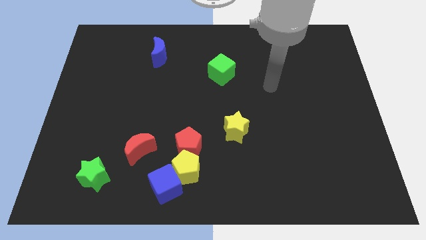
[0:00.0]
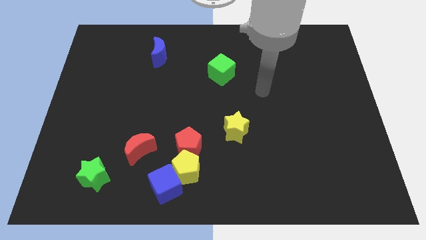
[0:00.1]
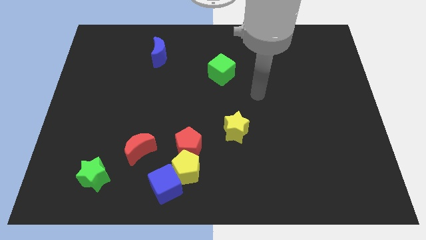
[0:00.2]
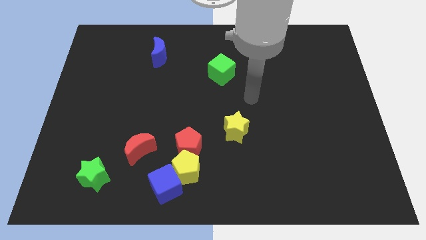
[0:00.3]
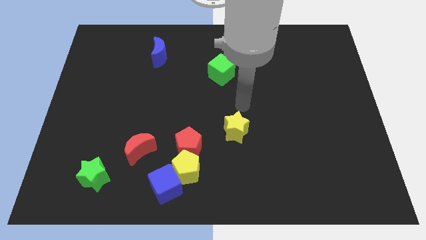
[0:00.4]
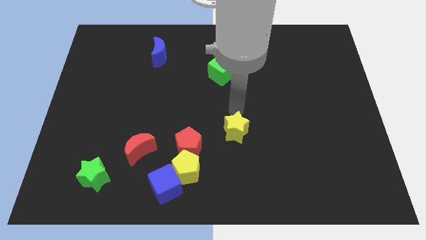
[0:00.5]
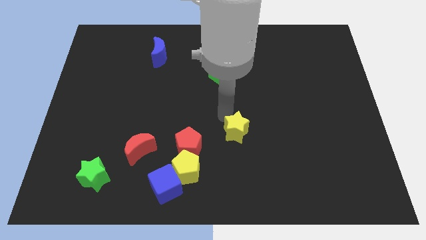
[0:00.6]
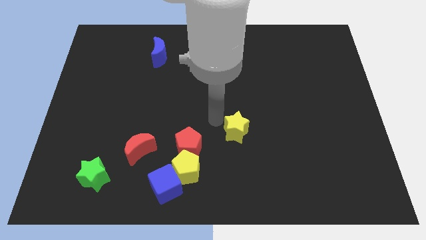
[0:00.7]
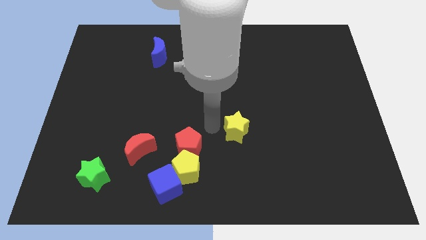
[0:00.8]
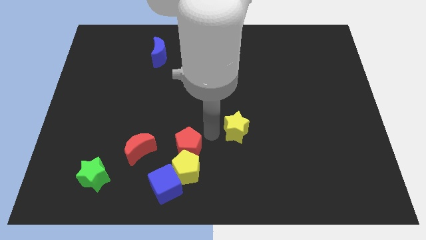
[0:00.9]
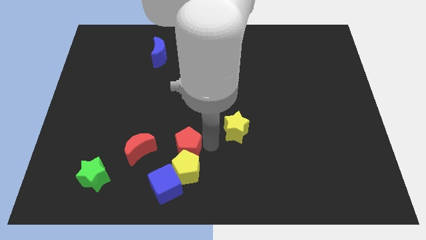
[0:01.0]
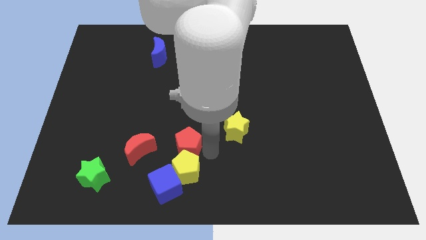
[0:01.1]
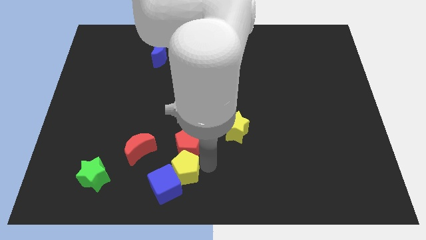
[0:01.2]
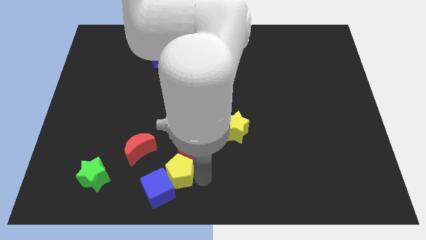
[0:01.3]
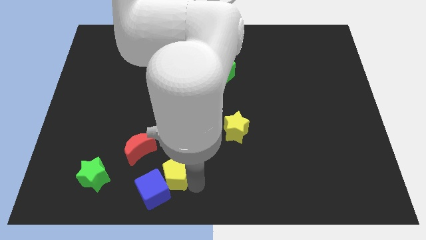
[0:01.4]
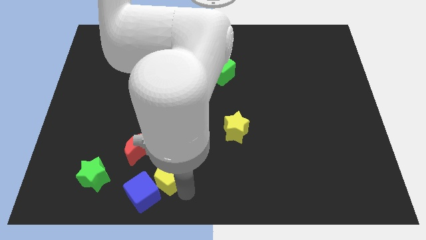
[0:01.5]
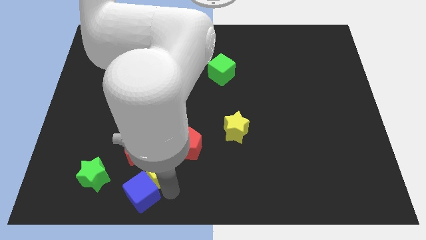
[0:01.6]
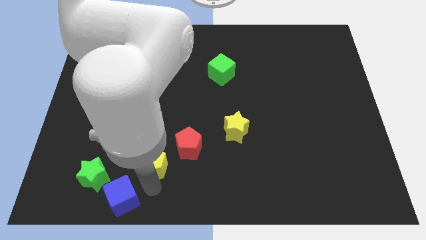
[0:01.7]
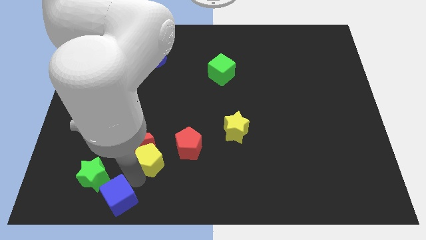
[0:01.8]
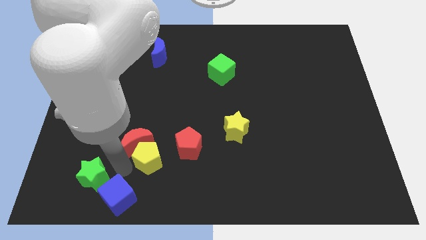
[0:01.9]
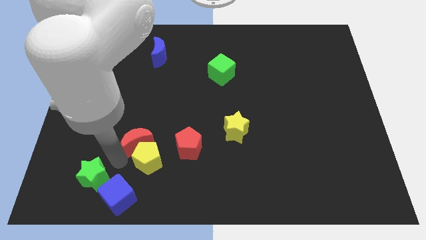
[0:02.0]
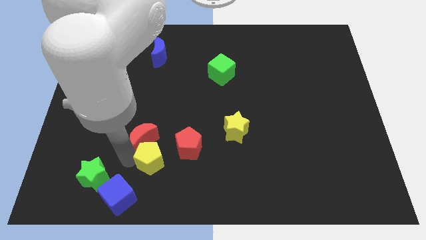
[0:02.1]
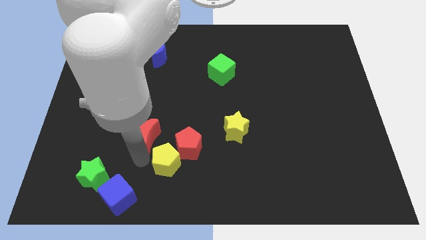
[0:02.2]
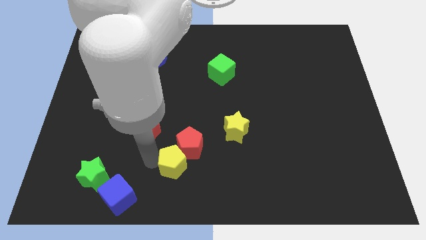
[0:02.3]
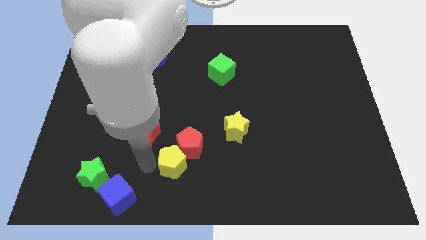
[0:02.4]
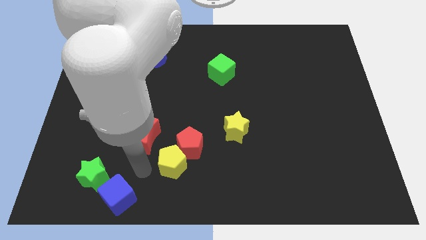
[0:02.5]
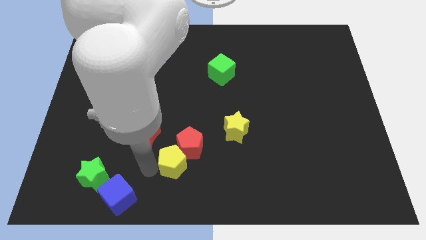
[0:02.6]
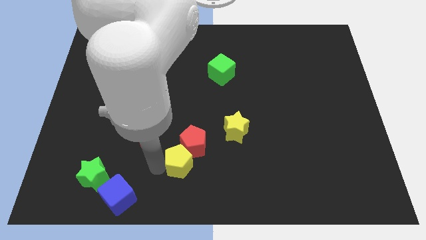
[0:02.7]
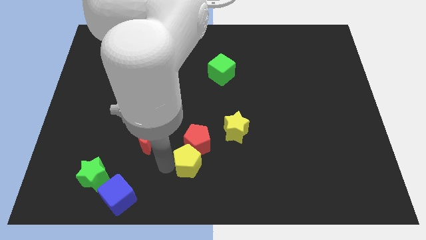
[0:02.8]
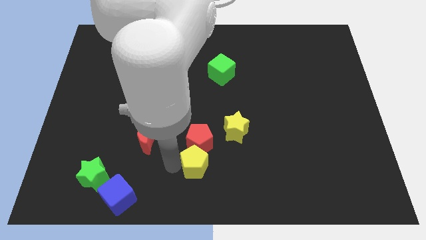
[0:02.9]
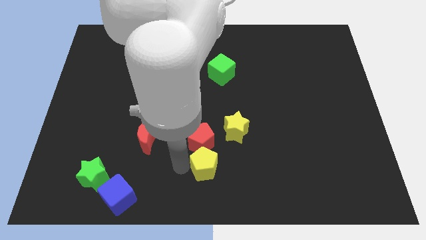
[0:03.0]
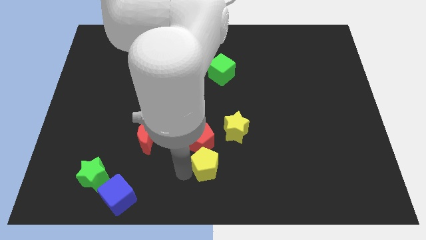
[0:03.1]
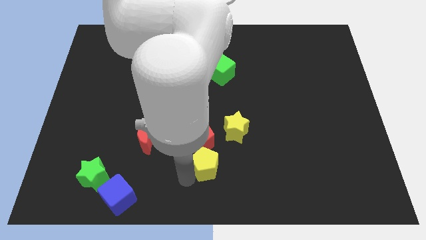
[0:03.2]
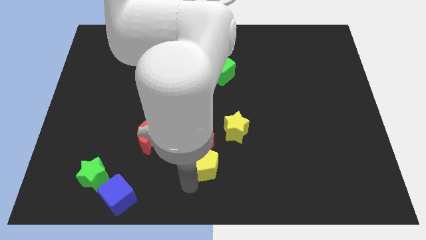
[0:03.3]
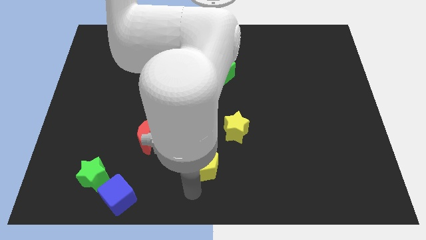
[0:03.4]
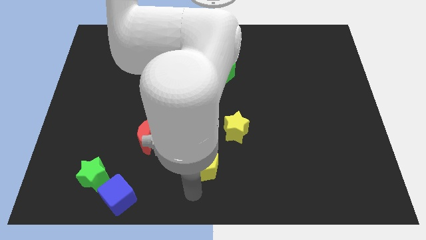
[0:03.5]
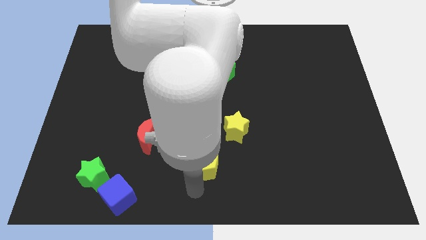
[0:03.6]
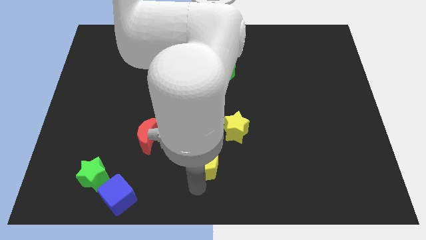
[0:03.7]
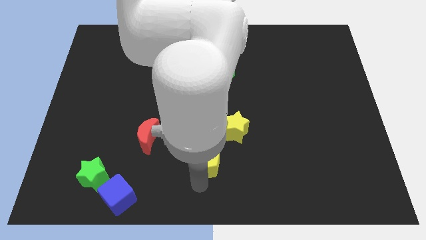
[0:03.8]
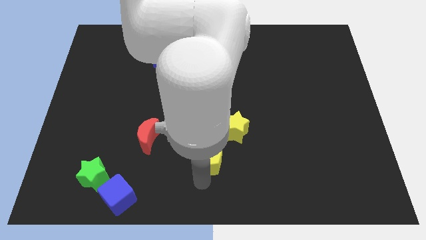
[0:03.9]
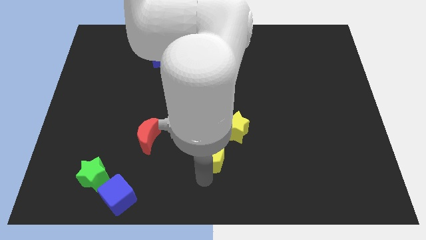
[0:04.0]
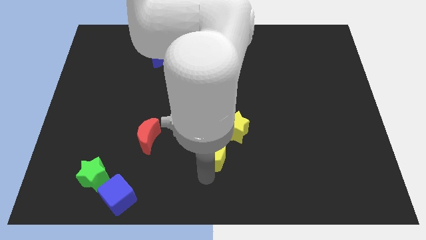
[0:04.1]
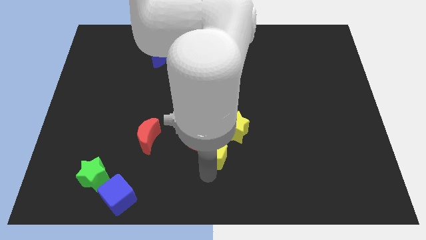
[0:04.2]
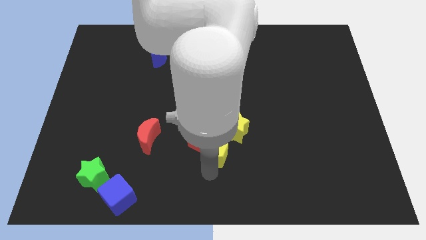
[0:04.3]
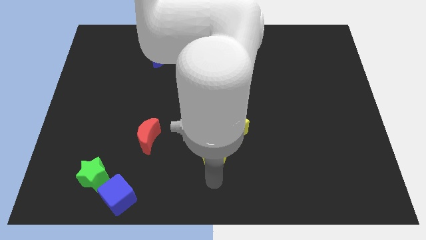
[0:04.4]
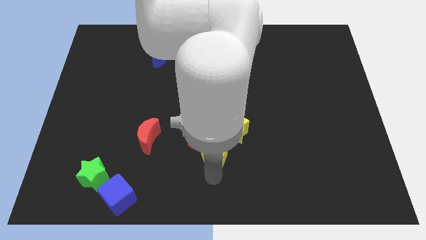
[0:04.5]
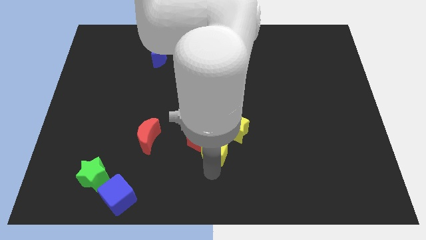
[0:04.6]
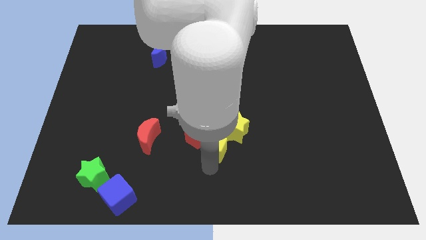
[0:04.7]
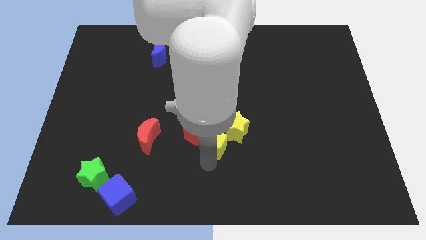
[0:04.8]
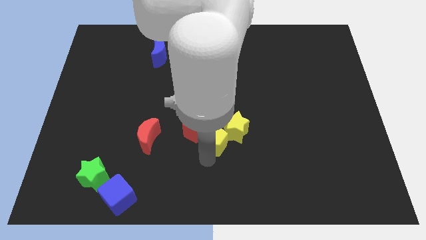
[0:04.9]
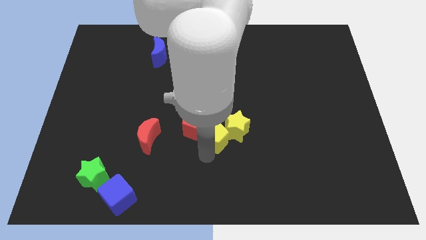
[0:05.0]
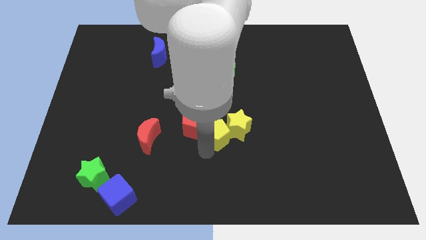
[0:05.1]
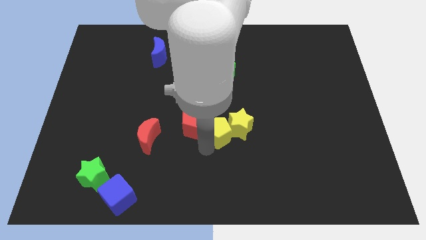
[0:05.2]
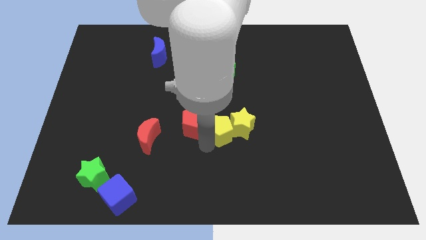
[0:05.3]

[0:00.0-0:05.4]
put the yellow pentagon diagonally up and to the left of the yellow star

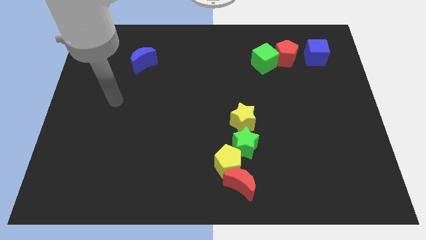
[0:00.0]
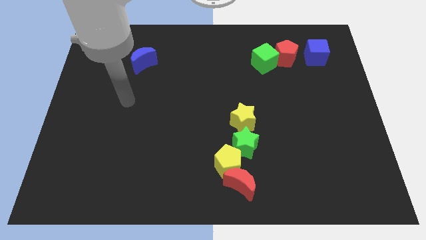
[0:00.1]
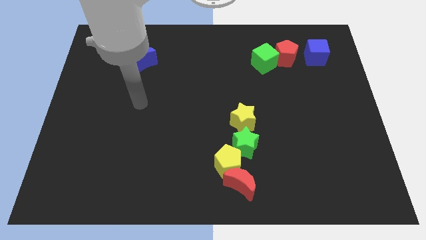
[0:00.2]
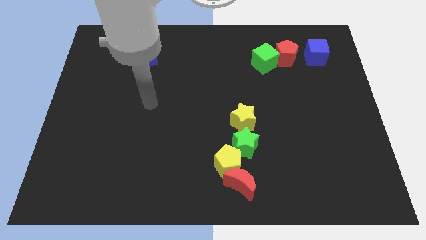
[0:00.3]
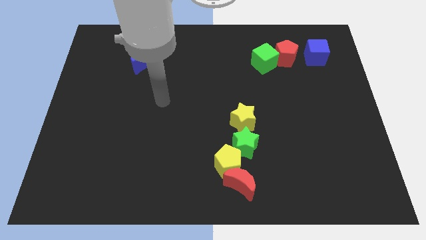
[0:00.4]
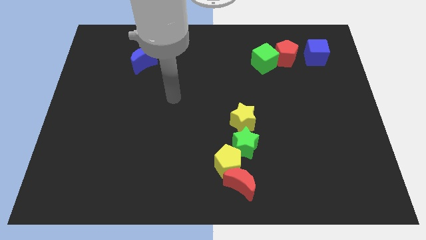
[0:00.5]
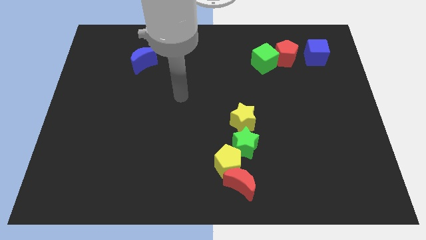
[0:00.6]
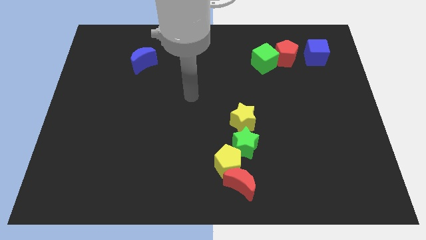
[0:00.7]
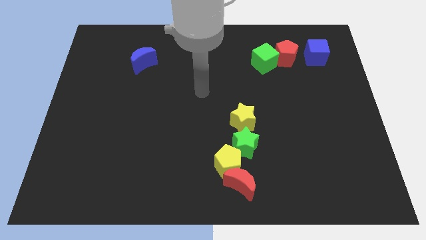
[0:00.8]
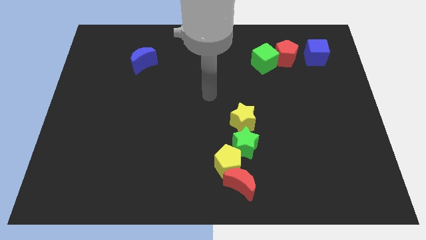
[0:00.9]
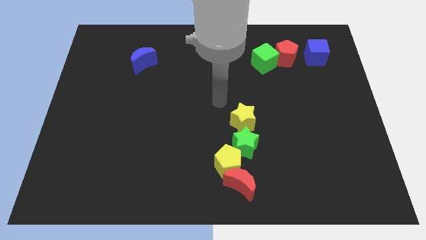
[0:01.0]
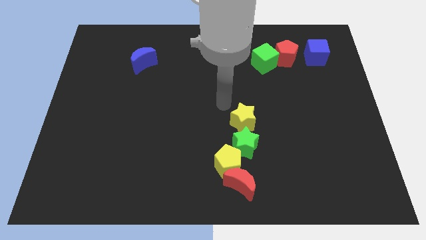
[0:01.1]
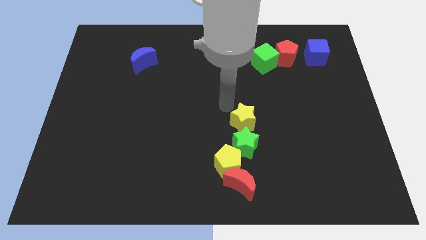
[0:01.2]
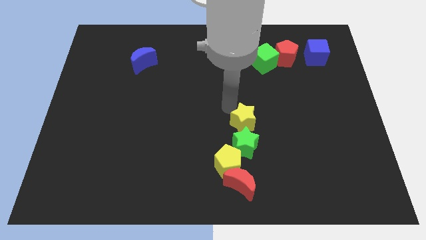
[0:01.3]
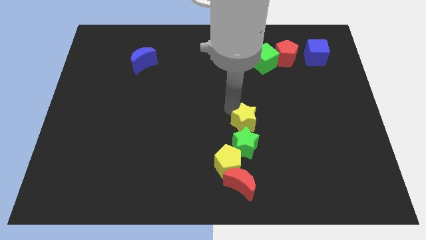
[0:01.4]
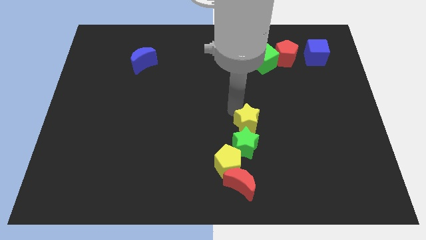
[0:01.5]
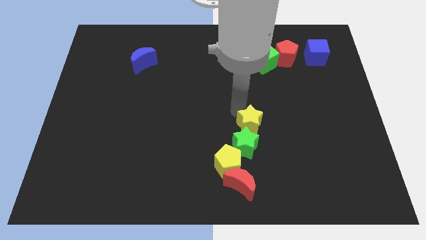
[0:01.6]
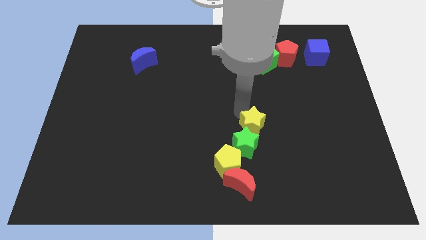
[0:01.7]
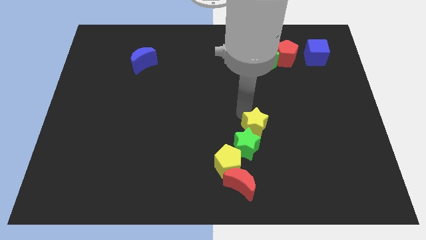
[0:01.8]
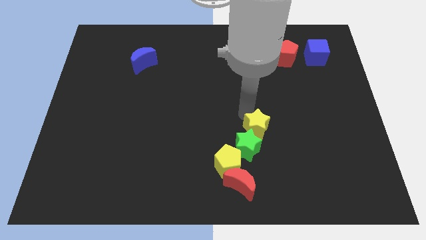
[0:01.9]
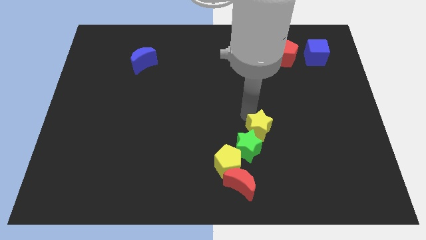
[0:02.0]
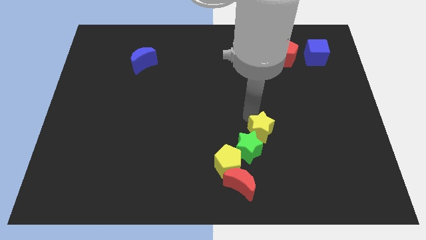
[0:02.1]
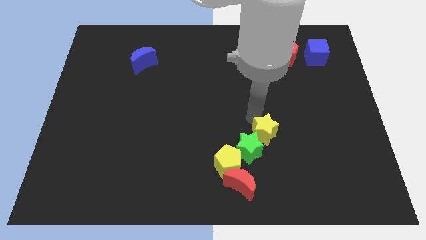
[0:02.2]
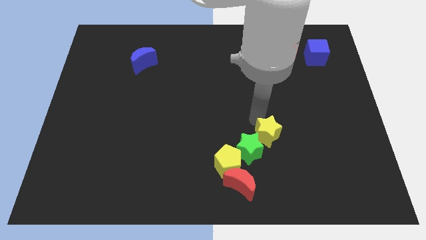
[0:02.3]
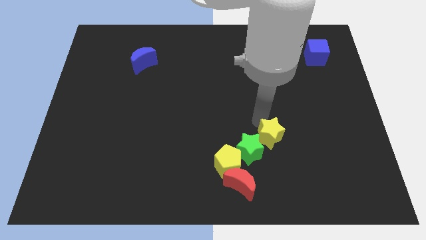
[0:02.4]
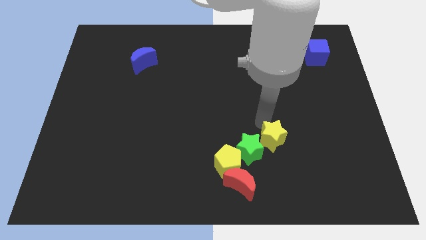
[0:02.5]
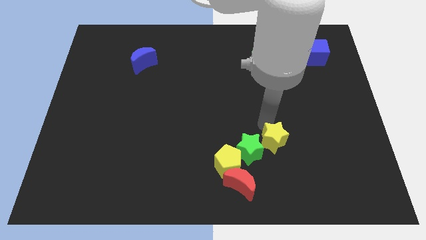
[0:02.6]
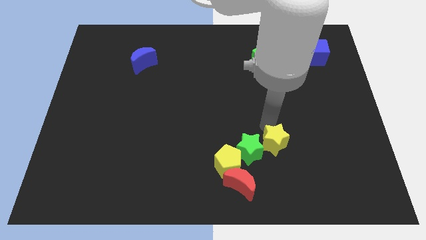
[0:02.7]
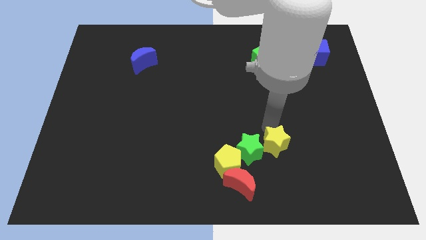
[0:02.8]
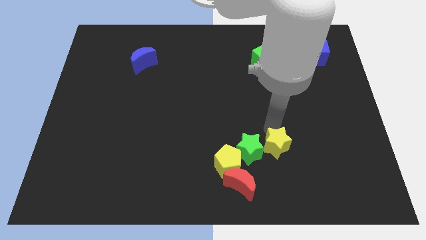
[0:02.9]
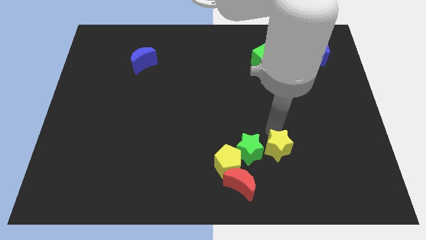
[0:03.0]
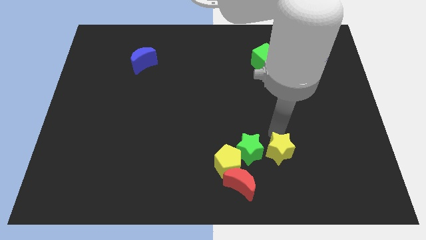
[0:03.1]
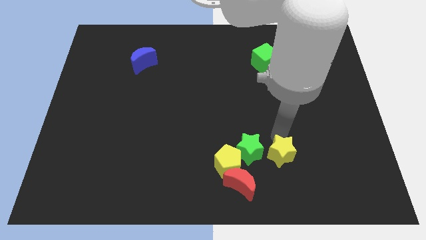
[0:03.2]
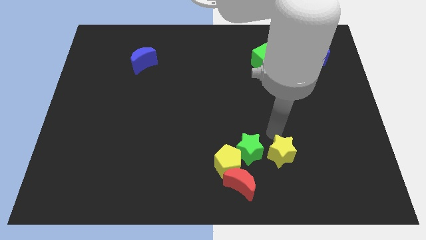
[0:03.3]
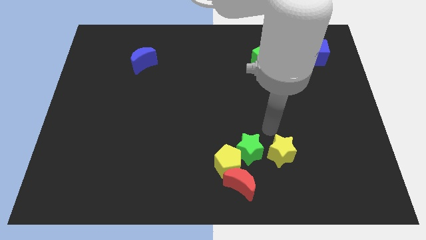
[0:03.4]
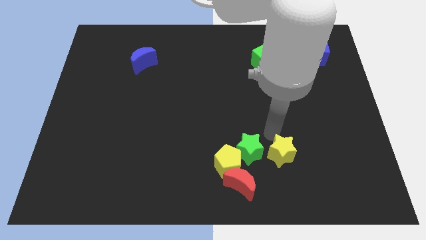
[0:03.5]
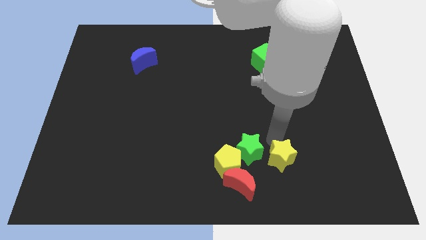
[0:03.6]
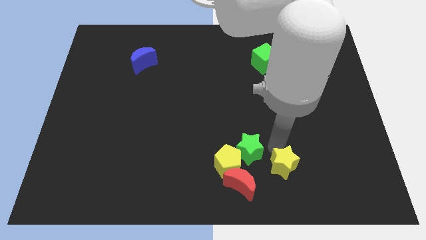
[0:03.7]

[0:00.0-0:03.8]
put the yellow star right of the red moon
